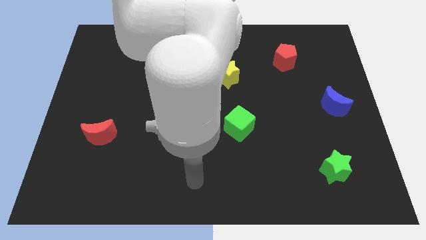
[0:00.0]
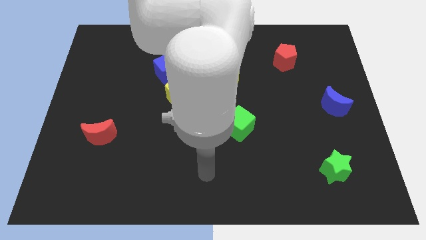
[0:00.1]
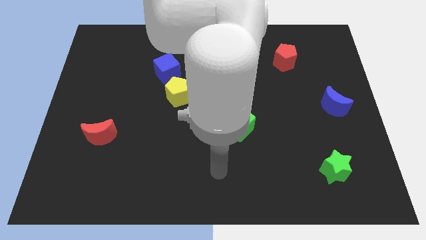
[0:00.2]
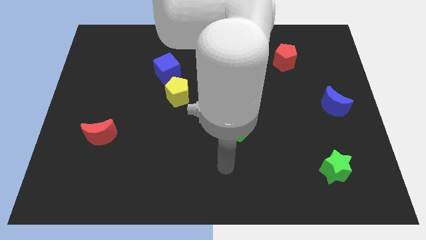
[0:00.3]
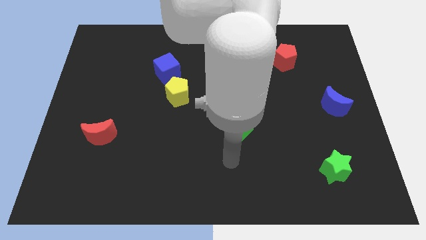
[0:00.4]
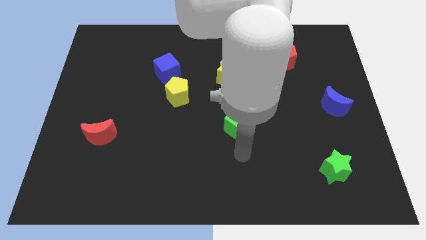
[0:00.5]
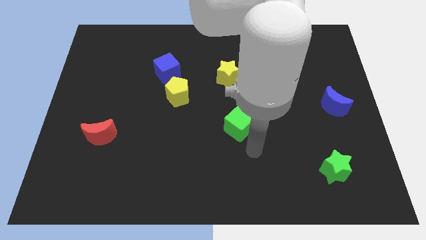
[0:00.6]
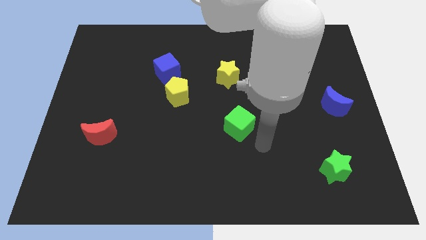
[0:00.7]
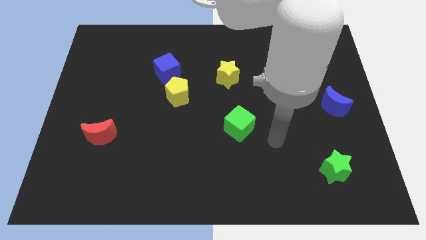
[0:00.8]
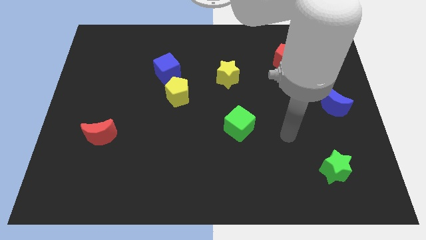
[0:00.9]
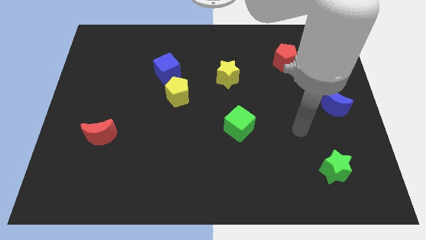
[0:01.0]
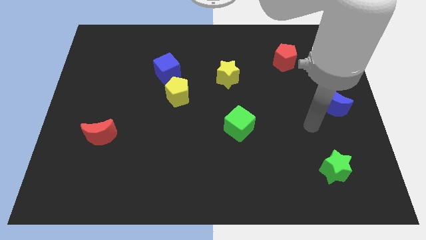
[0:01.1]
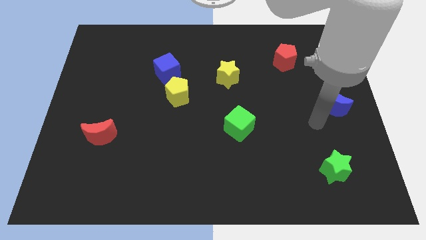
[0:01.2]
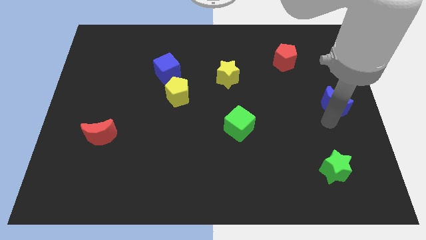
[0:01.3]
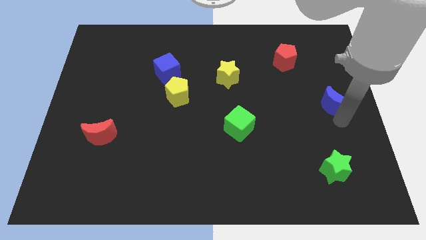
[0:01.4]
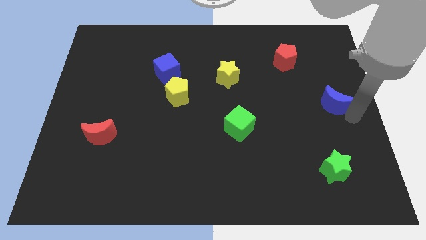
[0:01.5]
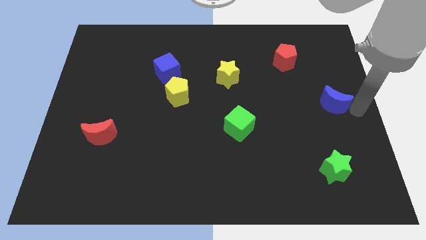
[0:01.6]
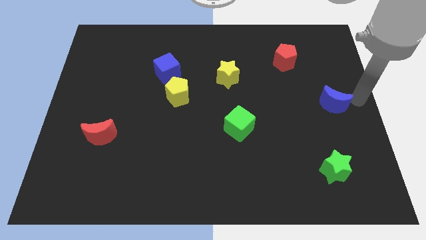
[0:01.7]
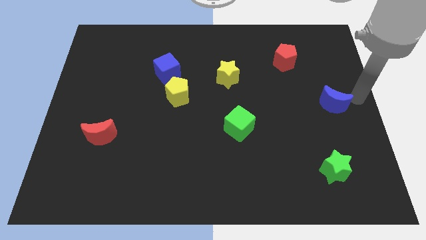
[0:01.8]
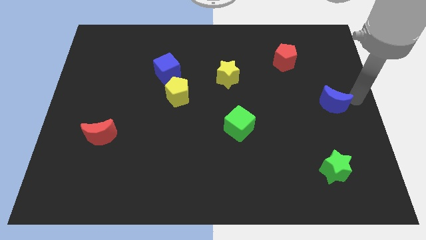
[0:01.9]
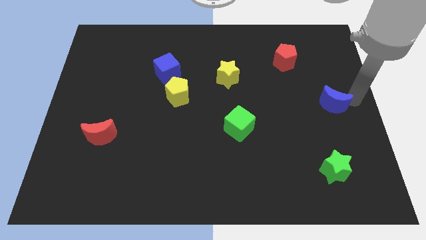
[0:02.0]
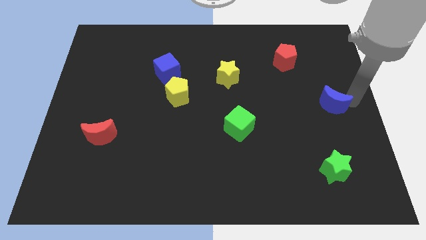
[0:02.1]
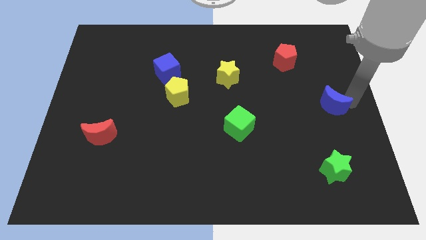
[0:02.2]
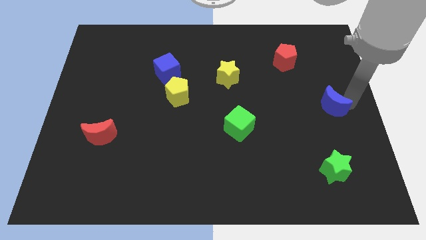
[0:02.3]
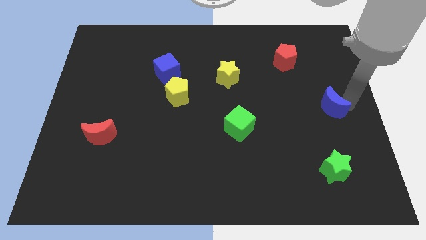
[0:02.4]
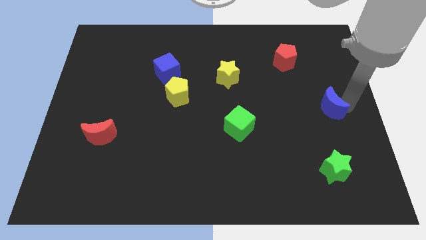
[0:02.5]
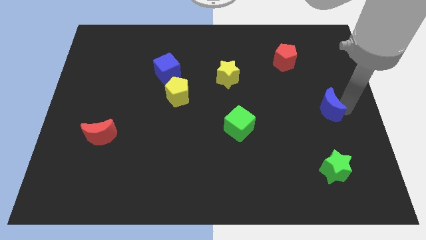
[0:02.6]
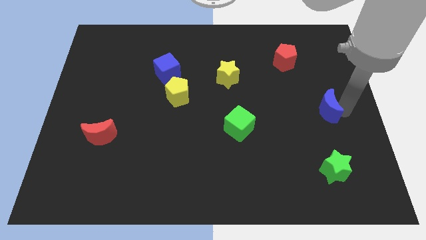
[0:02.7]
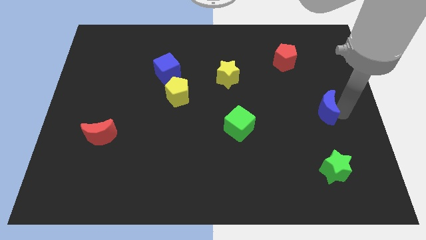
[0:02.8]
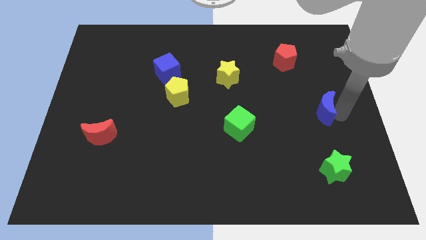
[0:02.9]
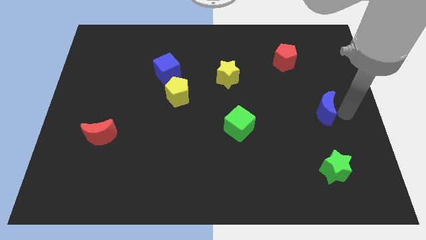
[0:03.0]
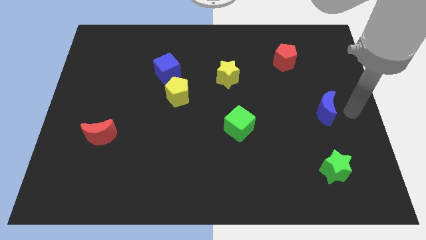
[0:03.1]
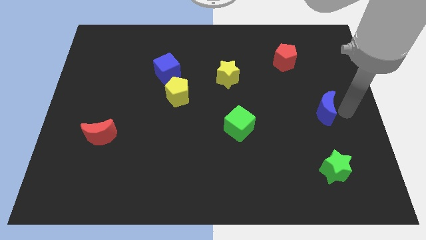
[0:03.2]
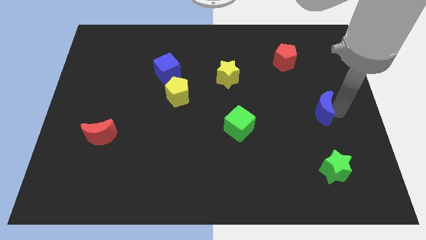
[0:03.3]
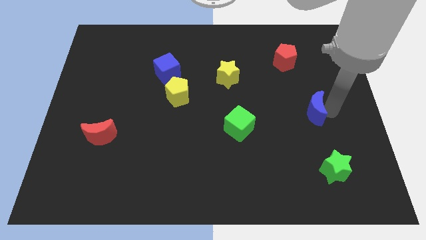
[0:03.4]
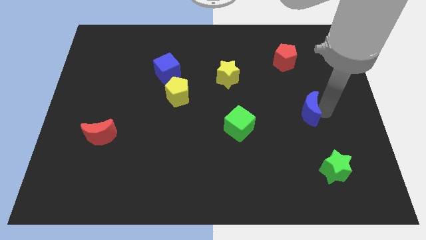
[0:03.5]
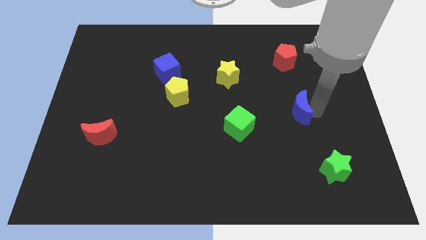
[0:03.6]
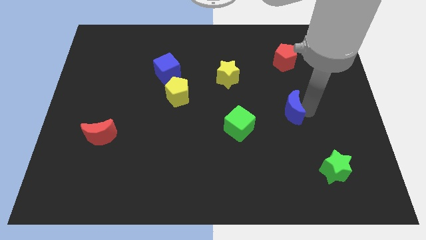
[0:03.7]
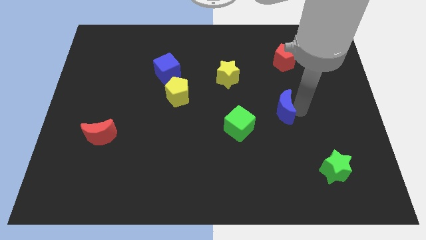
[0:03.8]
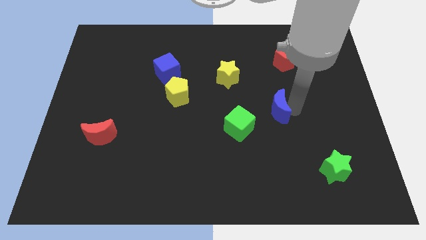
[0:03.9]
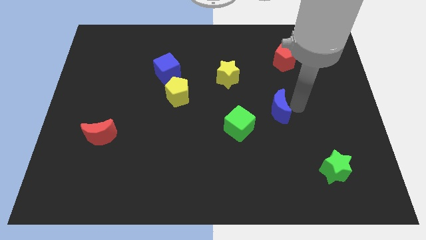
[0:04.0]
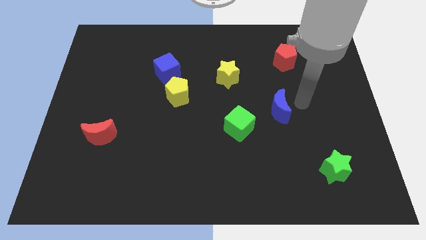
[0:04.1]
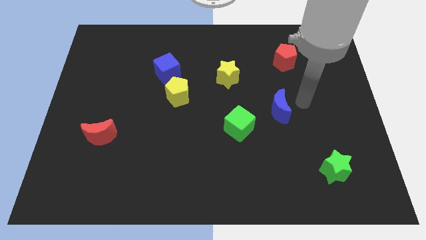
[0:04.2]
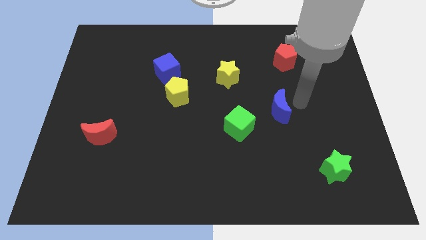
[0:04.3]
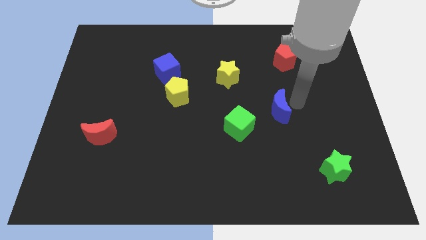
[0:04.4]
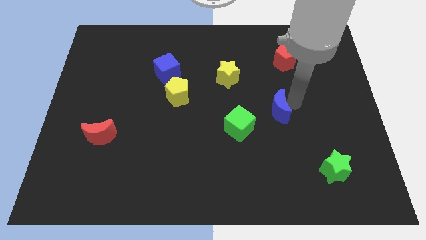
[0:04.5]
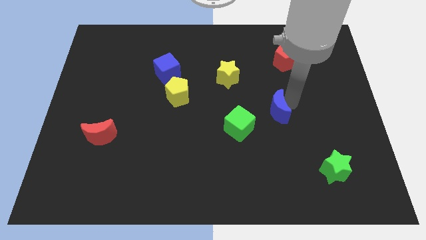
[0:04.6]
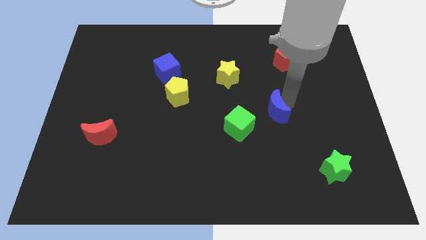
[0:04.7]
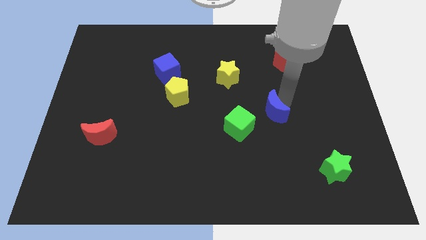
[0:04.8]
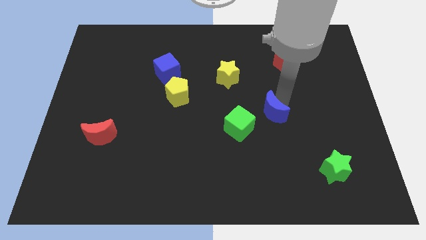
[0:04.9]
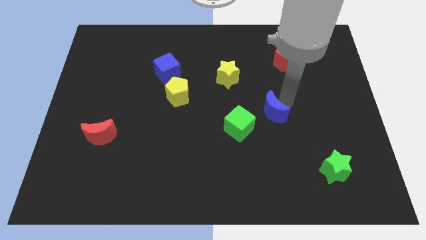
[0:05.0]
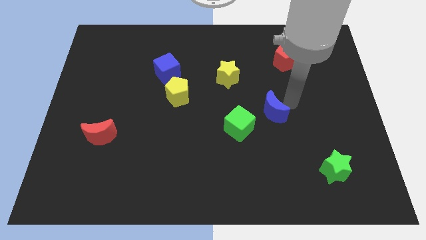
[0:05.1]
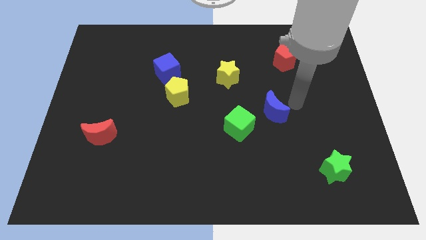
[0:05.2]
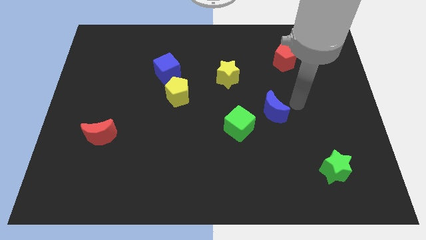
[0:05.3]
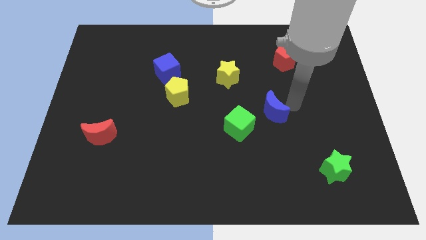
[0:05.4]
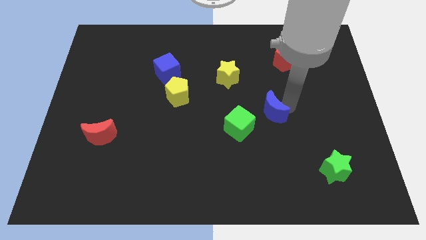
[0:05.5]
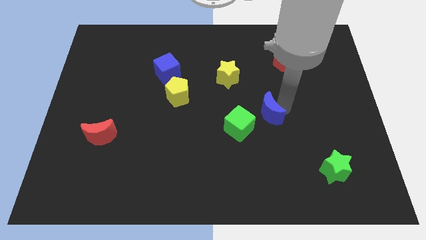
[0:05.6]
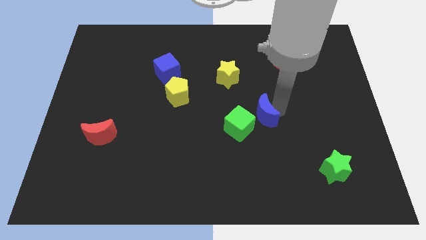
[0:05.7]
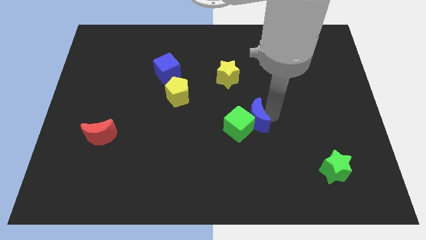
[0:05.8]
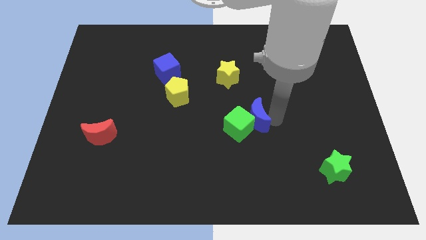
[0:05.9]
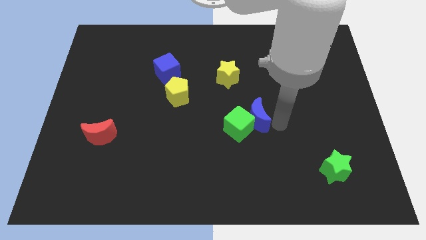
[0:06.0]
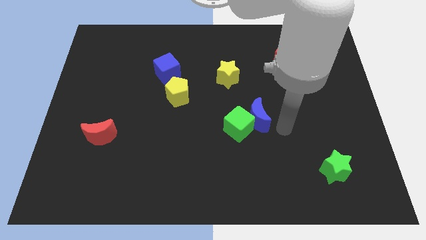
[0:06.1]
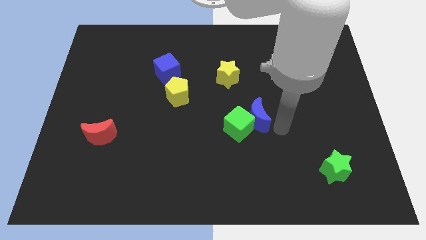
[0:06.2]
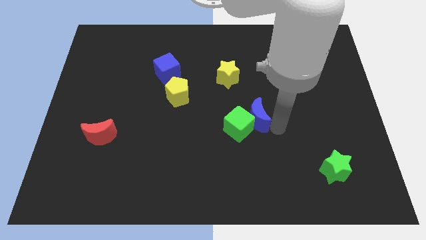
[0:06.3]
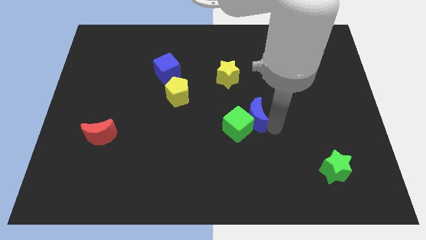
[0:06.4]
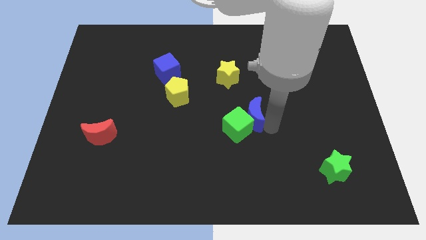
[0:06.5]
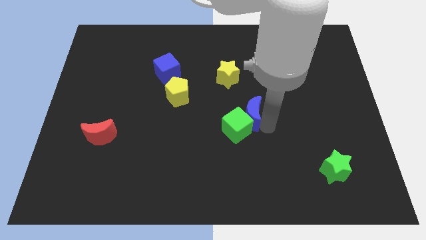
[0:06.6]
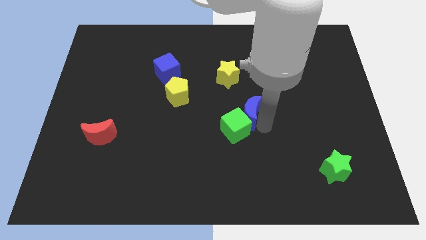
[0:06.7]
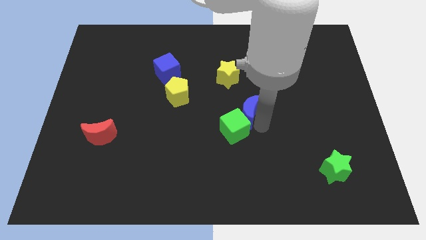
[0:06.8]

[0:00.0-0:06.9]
push the blue moon left

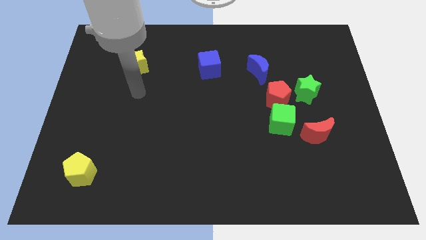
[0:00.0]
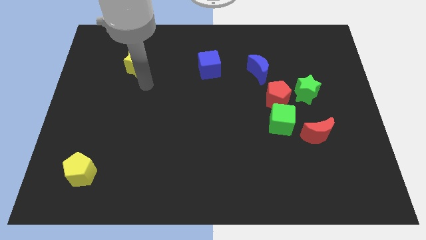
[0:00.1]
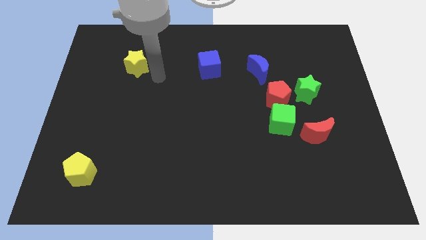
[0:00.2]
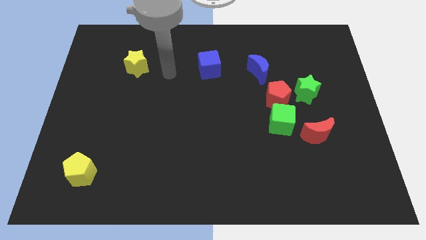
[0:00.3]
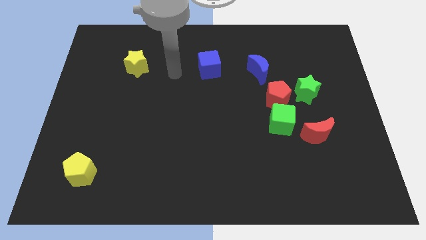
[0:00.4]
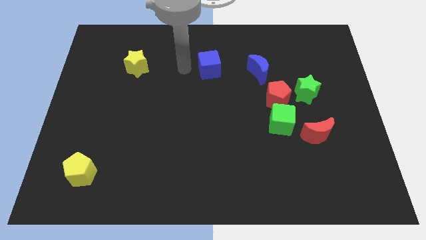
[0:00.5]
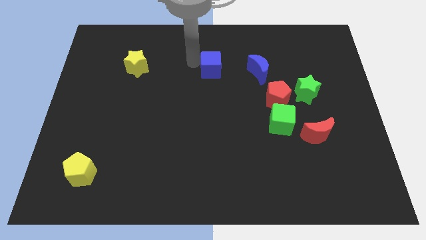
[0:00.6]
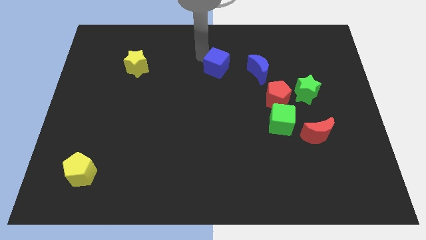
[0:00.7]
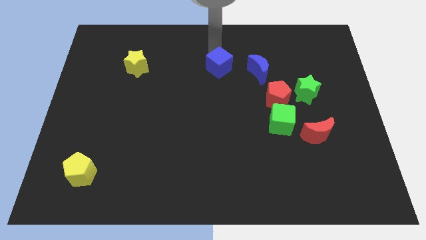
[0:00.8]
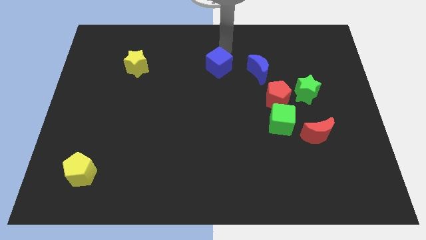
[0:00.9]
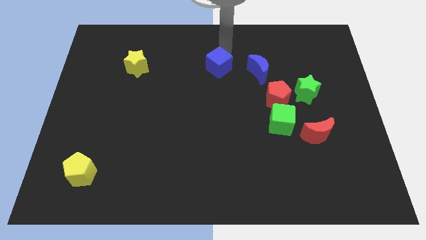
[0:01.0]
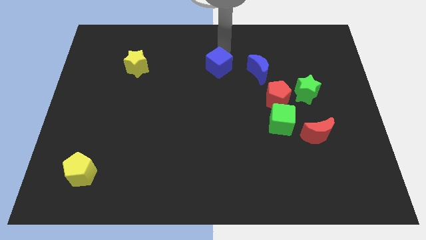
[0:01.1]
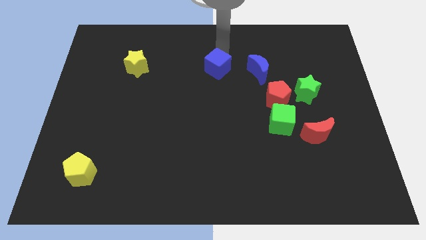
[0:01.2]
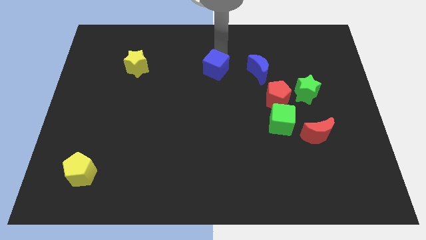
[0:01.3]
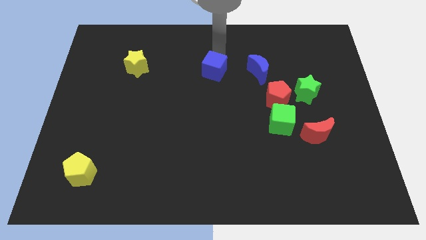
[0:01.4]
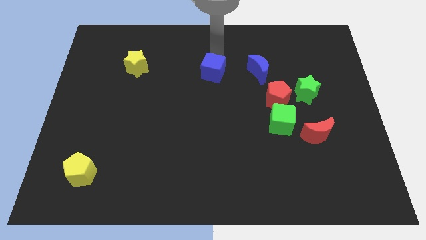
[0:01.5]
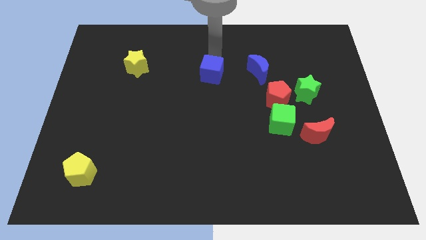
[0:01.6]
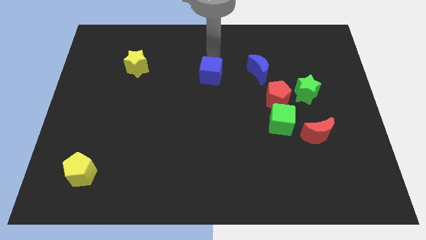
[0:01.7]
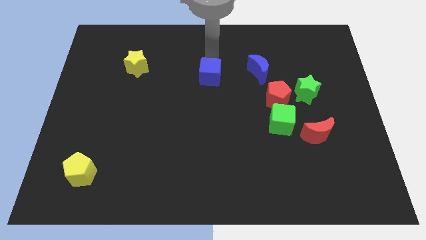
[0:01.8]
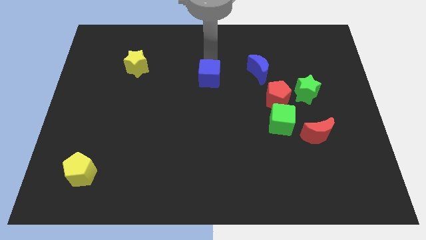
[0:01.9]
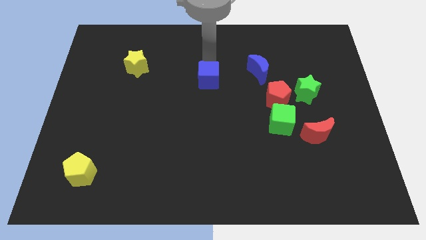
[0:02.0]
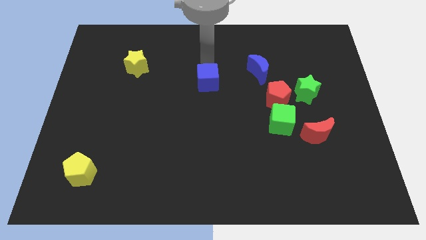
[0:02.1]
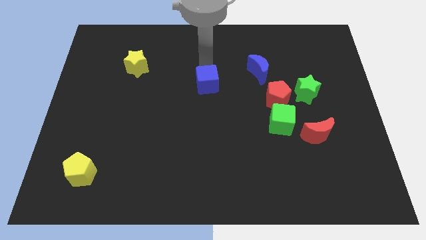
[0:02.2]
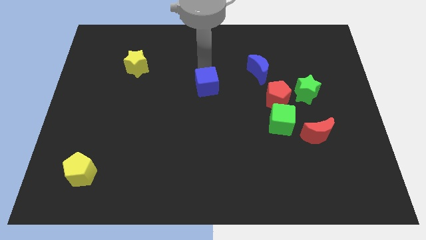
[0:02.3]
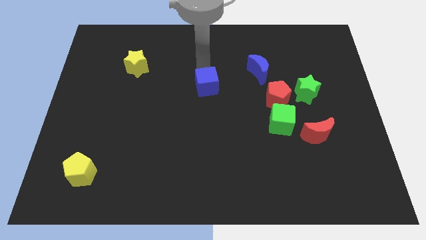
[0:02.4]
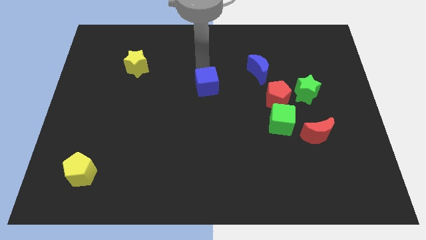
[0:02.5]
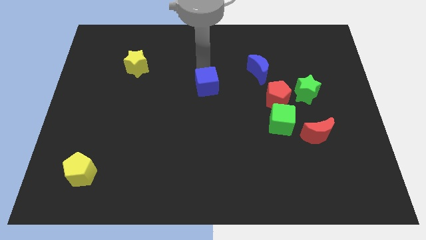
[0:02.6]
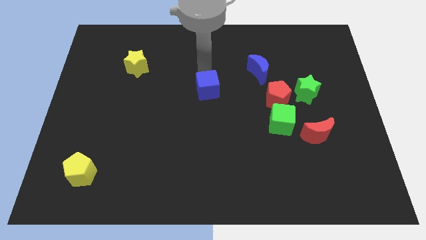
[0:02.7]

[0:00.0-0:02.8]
slide the blue cube down a little bit
